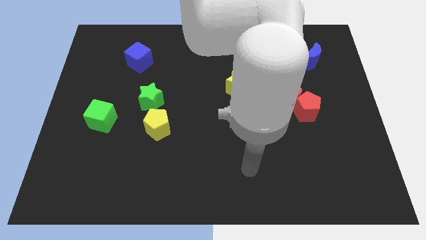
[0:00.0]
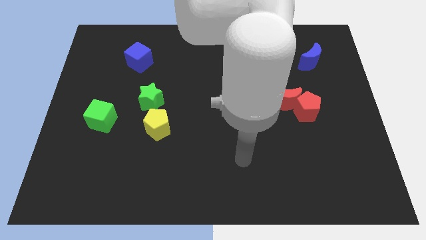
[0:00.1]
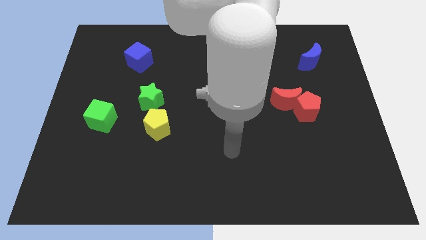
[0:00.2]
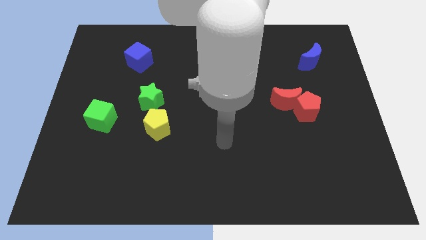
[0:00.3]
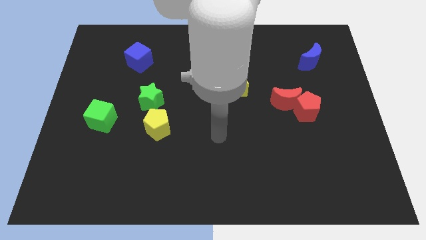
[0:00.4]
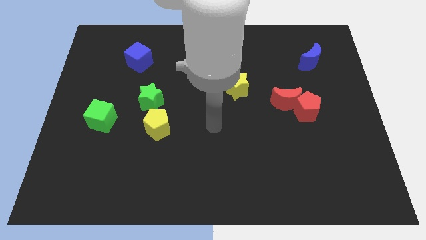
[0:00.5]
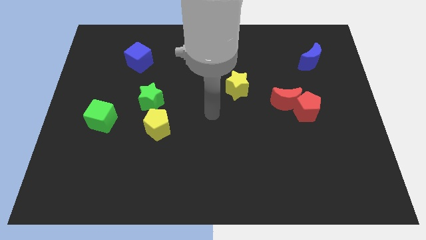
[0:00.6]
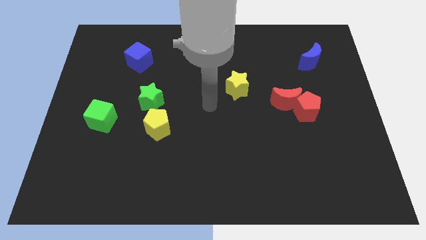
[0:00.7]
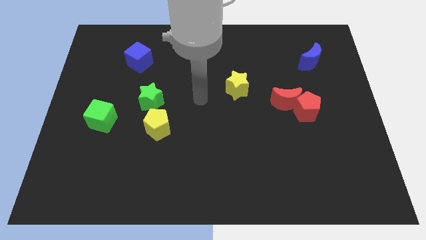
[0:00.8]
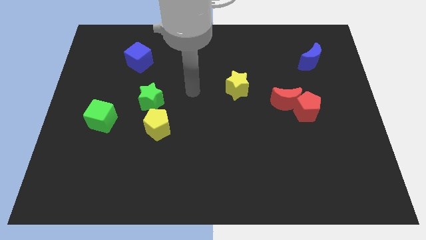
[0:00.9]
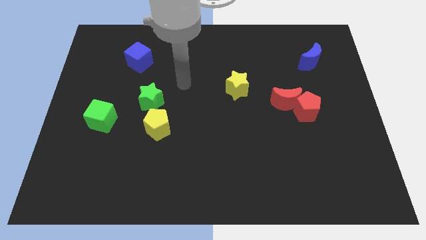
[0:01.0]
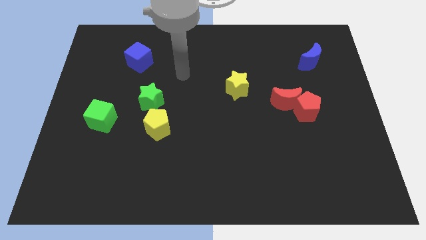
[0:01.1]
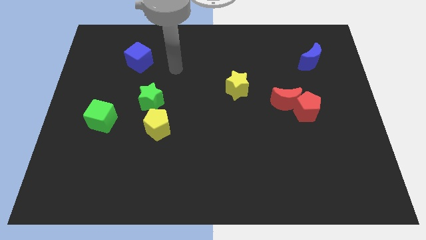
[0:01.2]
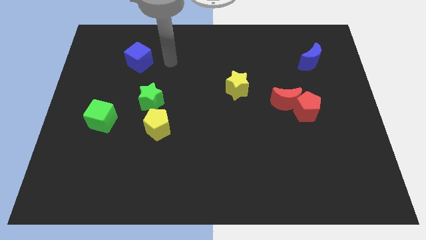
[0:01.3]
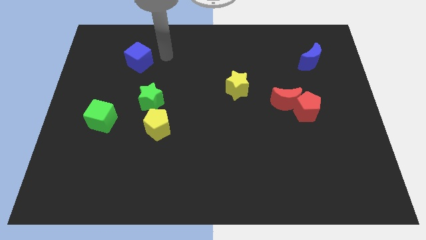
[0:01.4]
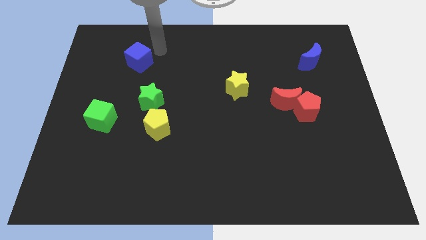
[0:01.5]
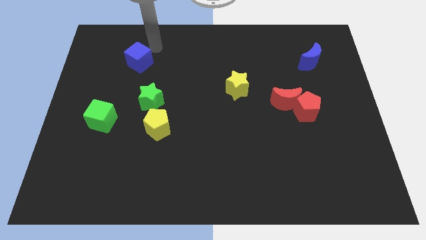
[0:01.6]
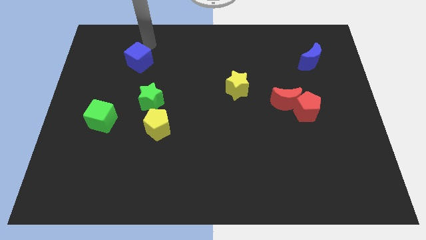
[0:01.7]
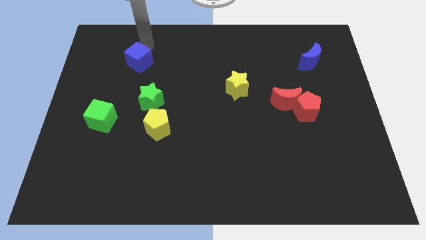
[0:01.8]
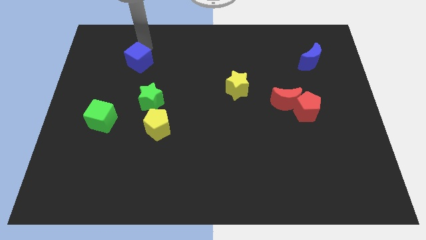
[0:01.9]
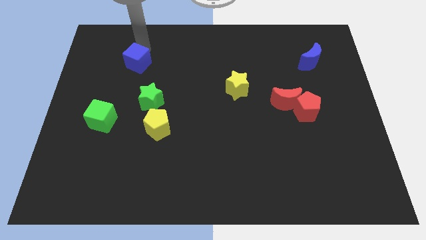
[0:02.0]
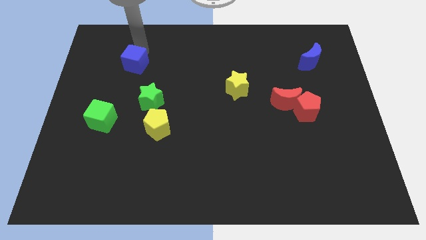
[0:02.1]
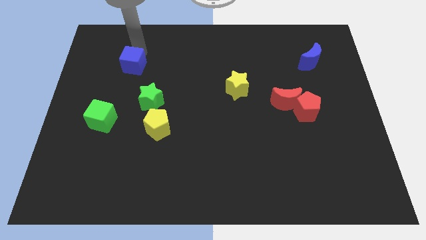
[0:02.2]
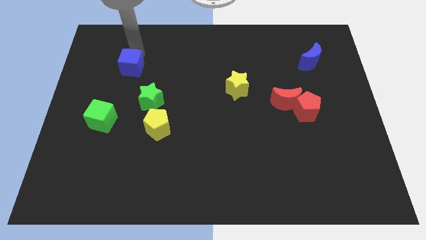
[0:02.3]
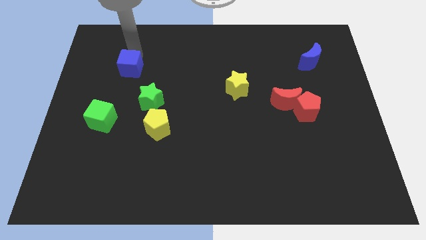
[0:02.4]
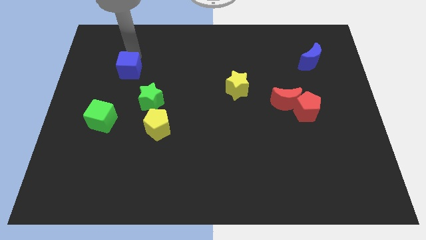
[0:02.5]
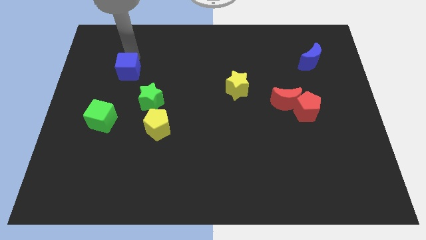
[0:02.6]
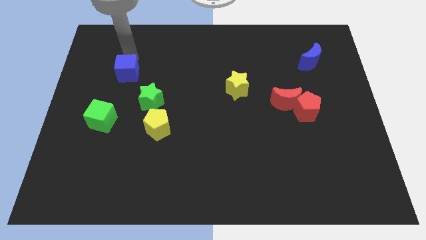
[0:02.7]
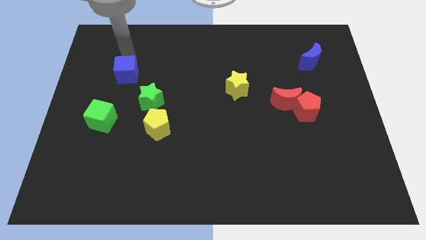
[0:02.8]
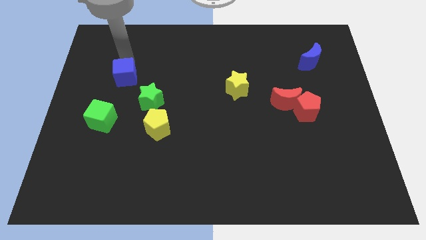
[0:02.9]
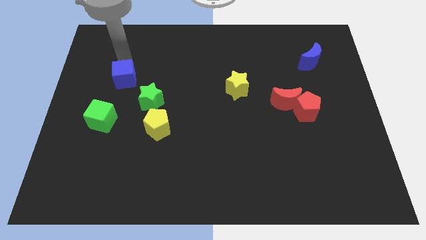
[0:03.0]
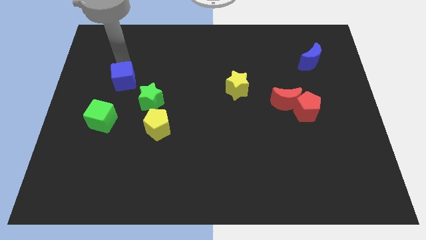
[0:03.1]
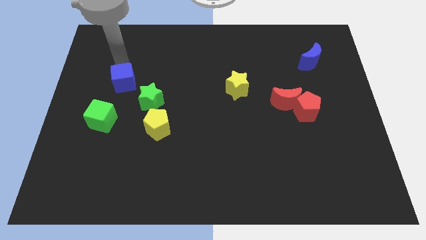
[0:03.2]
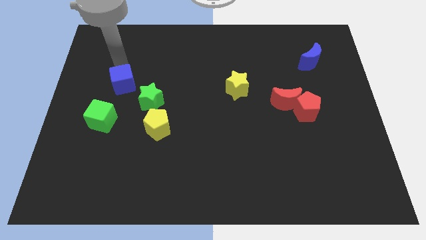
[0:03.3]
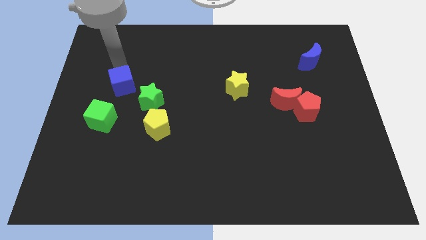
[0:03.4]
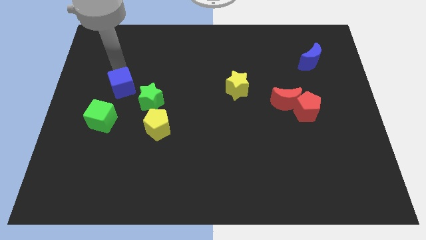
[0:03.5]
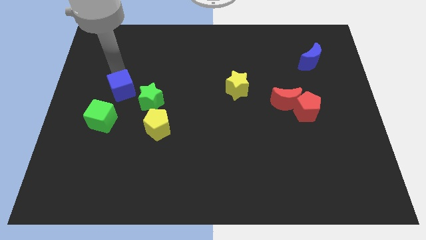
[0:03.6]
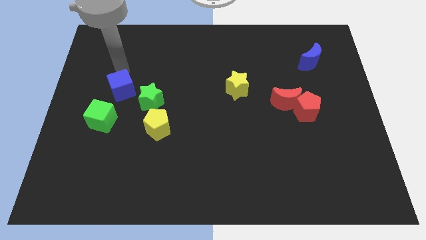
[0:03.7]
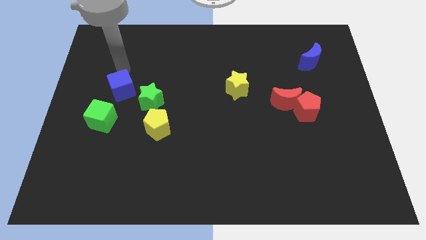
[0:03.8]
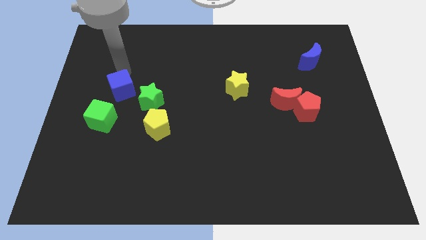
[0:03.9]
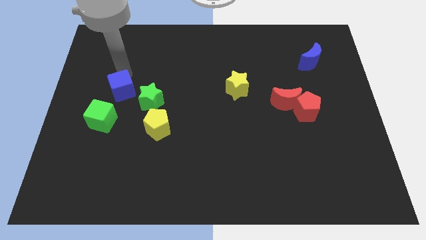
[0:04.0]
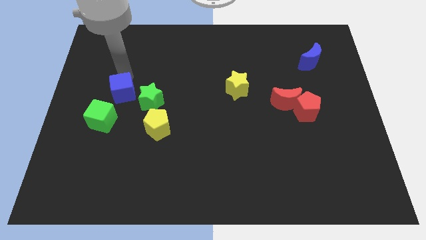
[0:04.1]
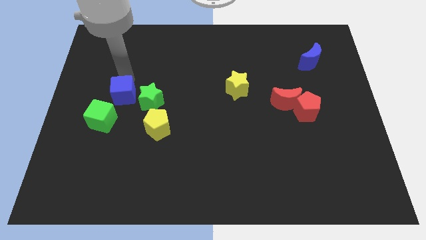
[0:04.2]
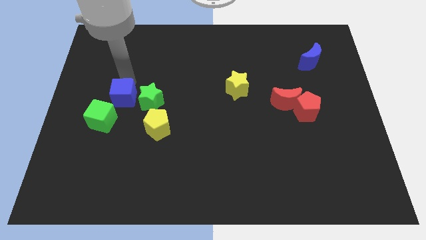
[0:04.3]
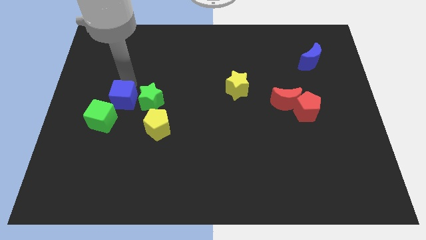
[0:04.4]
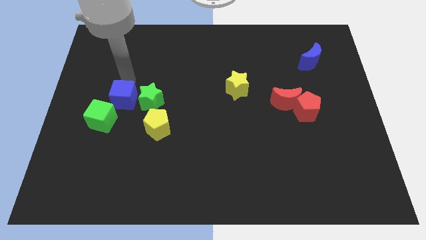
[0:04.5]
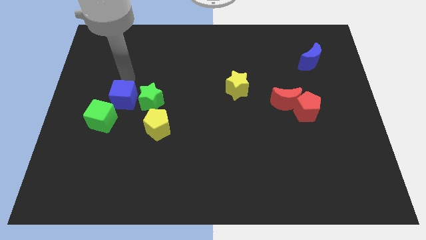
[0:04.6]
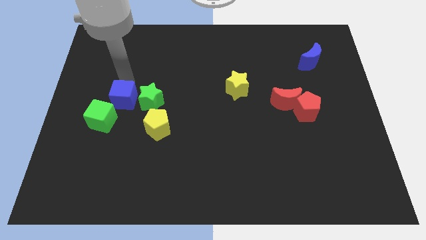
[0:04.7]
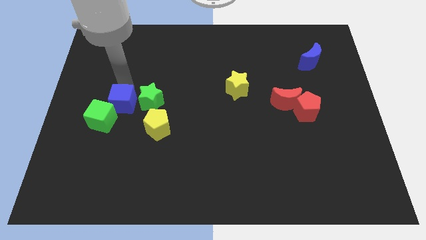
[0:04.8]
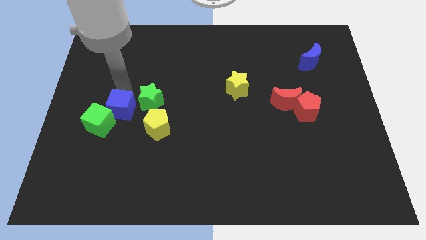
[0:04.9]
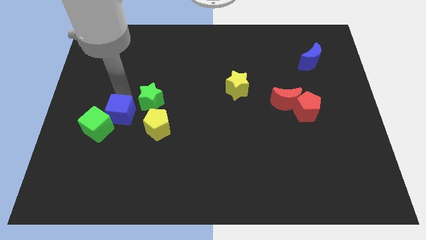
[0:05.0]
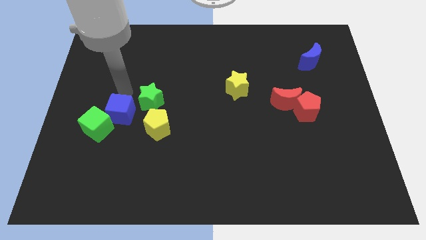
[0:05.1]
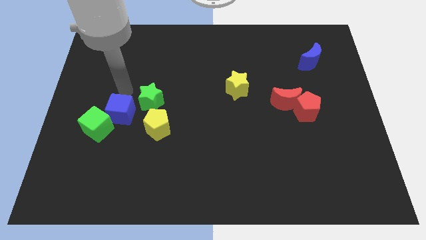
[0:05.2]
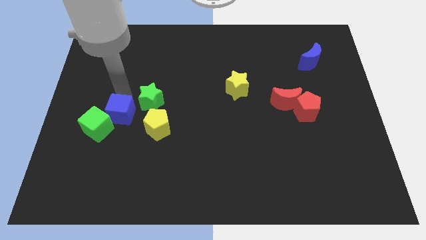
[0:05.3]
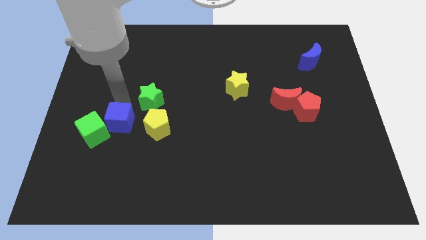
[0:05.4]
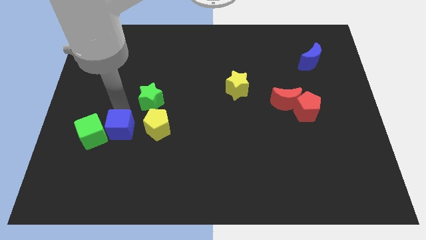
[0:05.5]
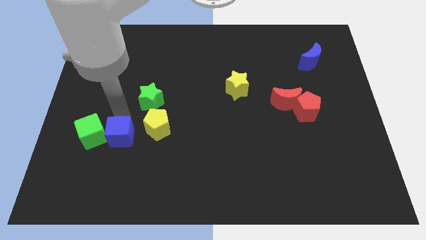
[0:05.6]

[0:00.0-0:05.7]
slide the blue cube diagonally down and to the right of the green cube

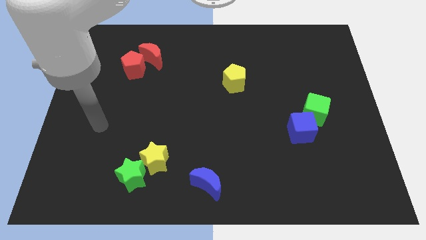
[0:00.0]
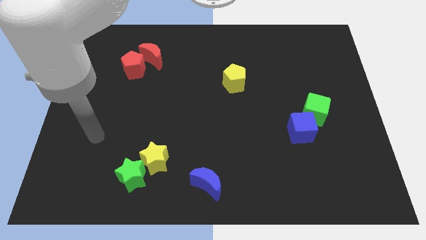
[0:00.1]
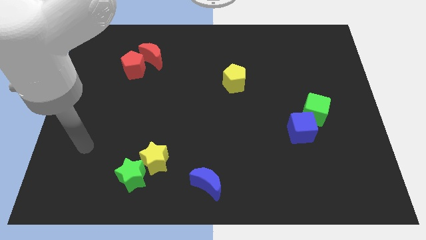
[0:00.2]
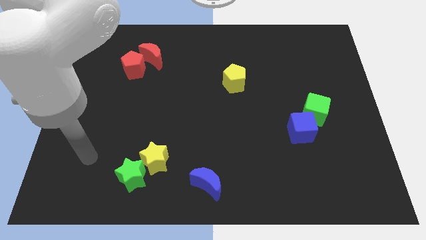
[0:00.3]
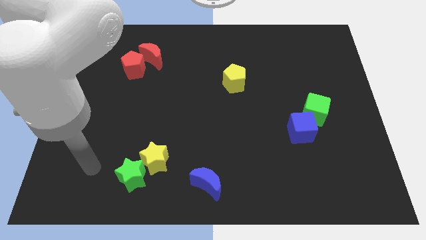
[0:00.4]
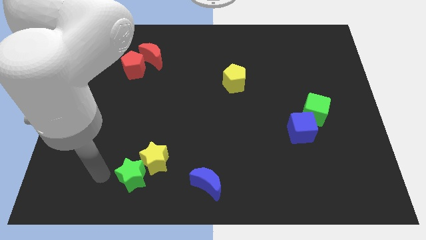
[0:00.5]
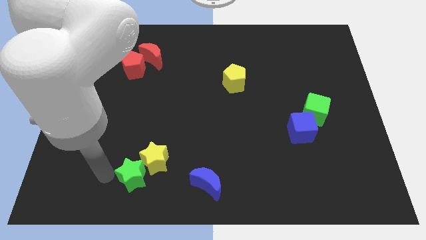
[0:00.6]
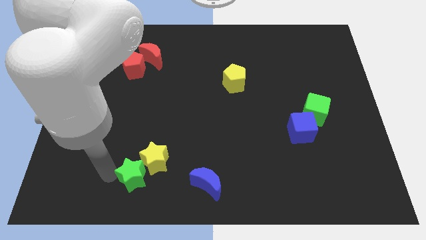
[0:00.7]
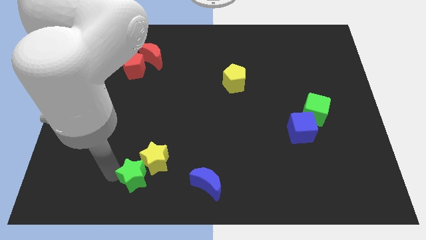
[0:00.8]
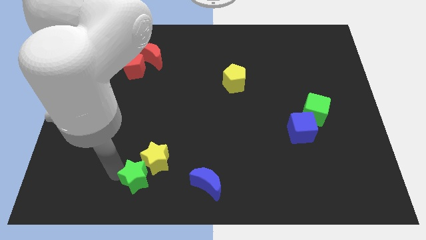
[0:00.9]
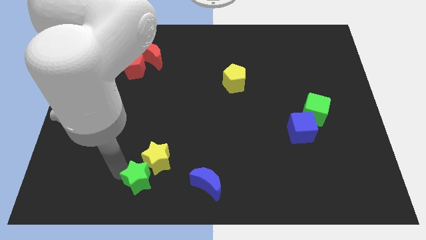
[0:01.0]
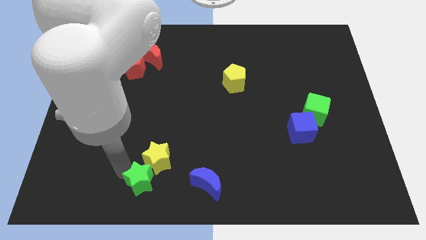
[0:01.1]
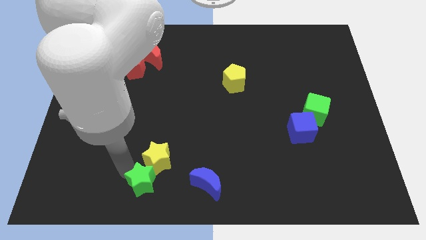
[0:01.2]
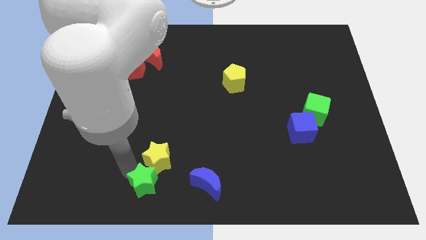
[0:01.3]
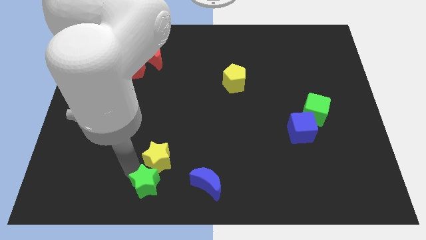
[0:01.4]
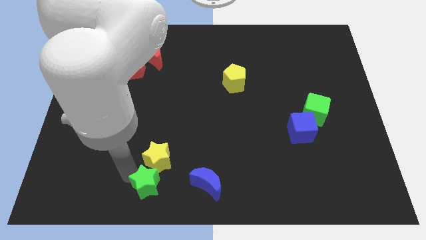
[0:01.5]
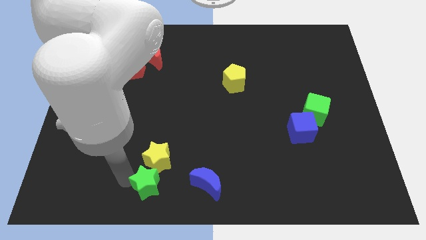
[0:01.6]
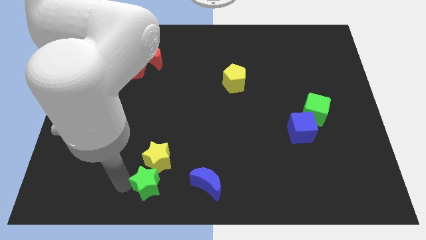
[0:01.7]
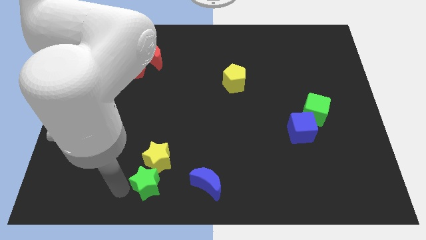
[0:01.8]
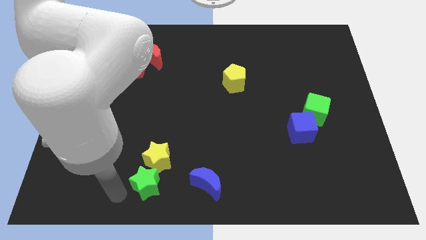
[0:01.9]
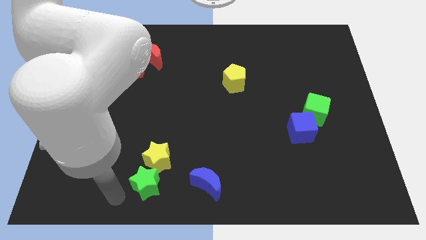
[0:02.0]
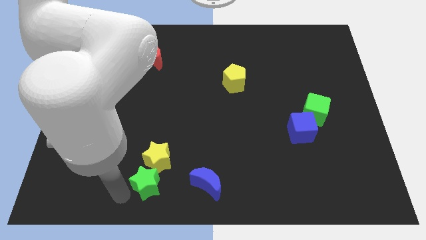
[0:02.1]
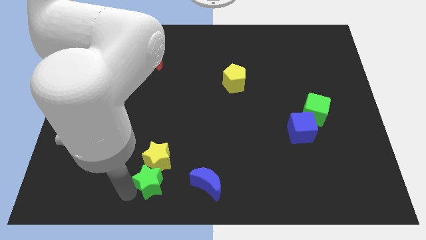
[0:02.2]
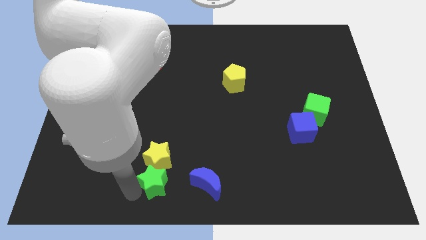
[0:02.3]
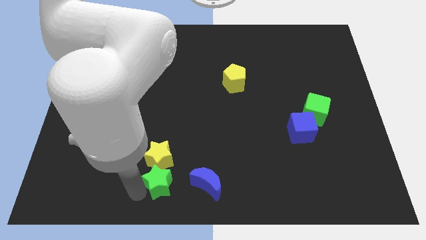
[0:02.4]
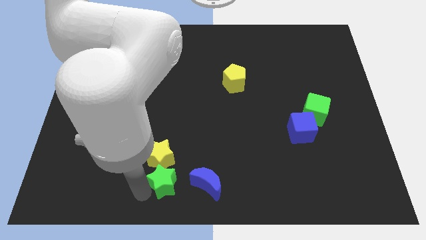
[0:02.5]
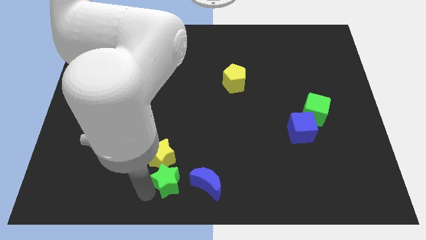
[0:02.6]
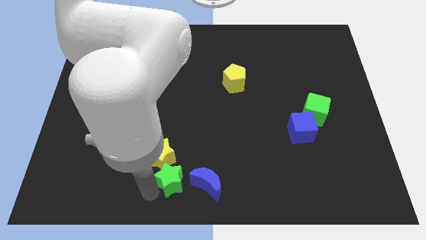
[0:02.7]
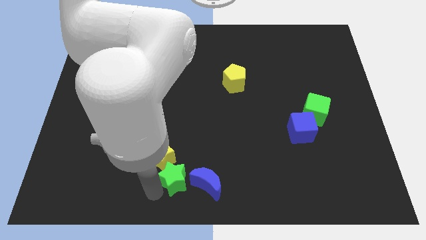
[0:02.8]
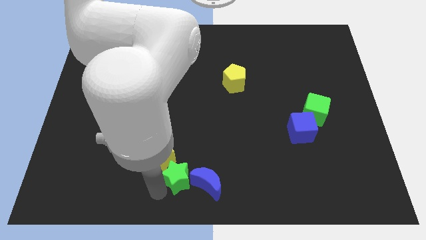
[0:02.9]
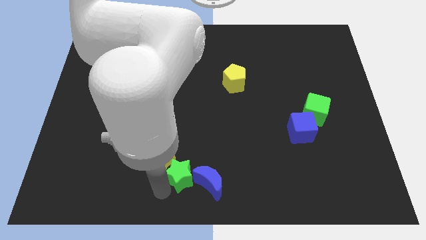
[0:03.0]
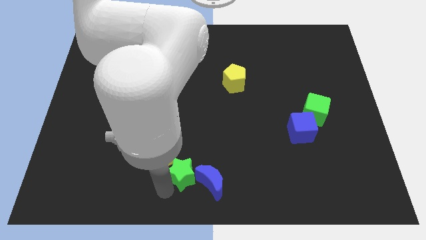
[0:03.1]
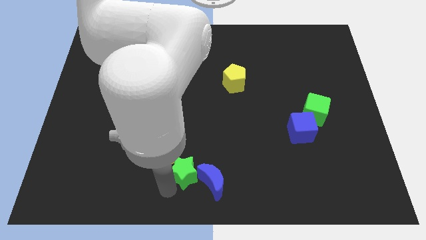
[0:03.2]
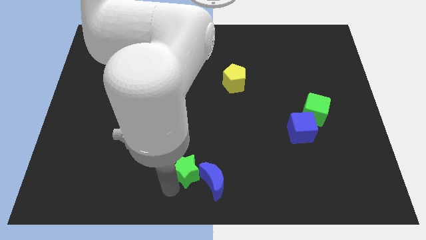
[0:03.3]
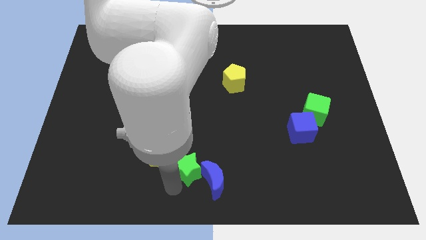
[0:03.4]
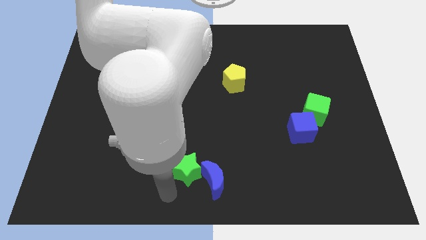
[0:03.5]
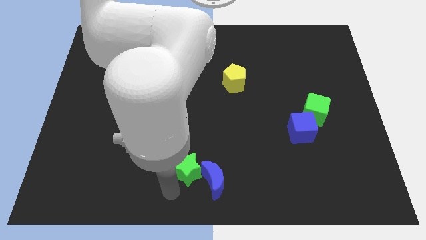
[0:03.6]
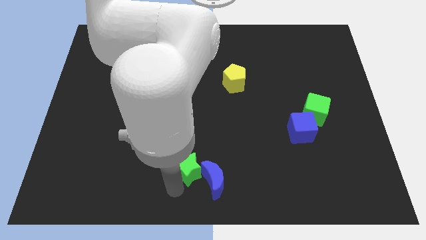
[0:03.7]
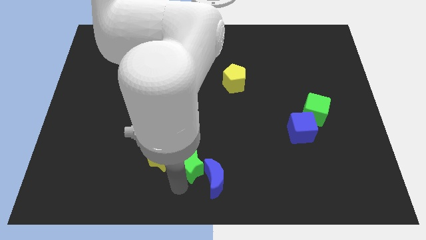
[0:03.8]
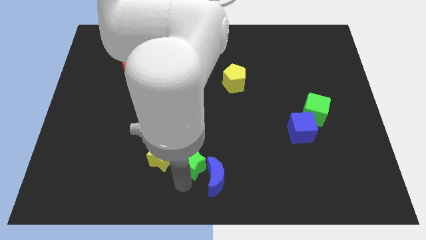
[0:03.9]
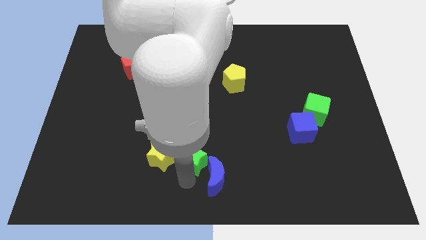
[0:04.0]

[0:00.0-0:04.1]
slide the green star to the top of the blue moon
